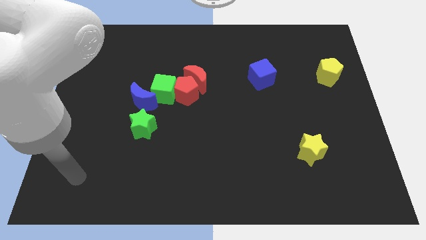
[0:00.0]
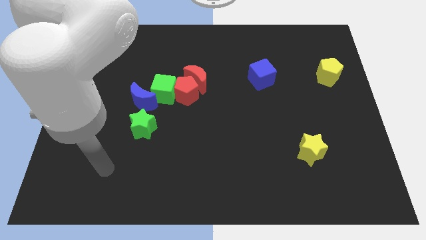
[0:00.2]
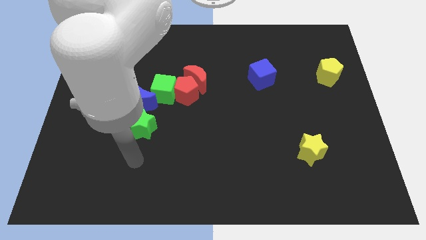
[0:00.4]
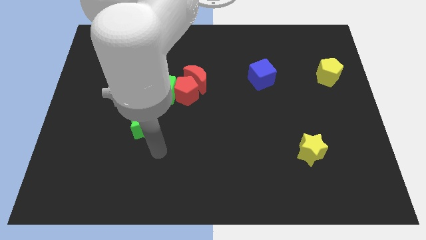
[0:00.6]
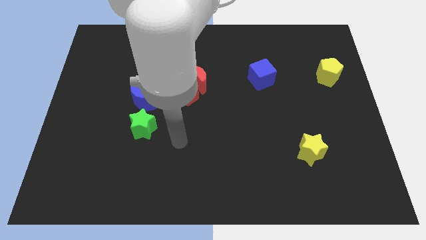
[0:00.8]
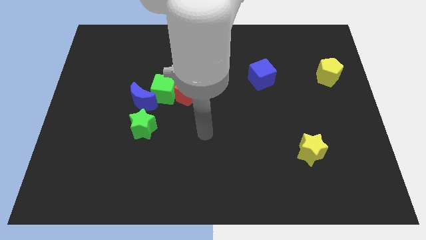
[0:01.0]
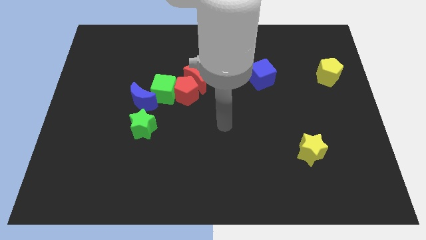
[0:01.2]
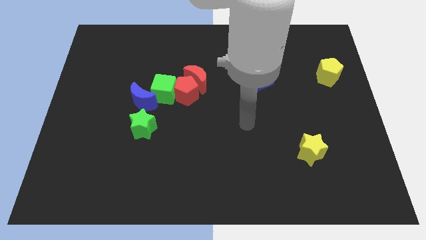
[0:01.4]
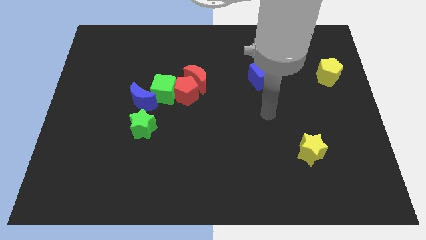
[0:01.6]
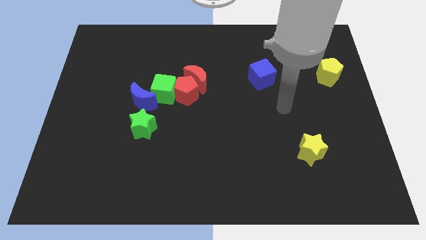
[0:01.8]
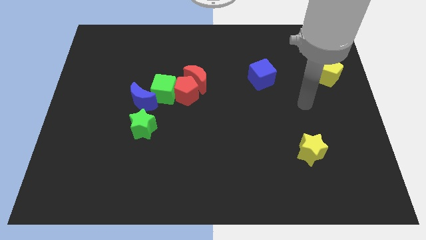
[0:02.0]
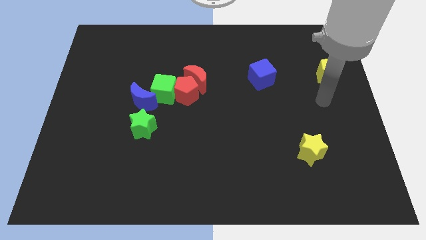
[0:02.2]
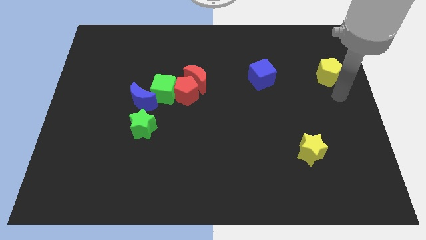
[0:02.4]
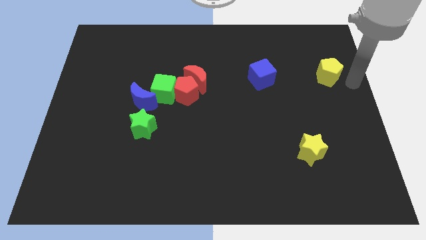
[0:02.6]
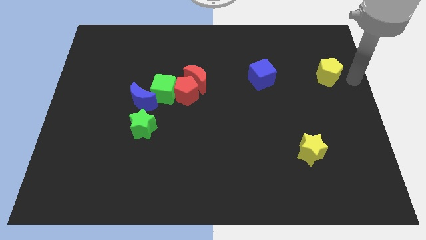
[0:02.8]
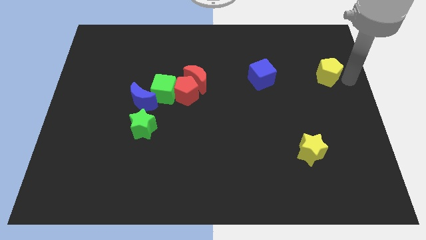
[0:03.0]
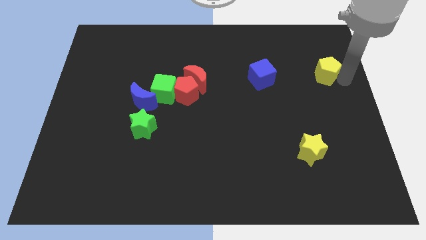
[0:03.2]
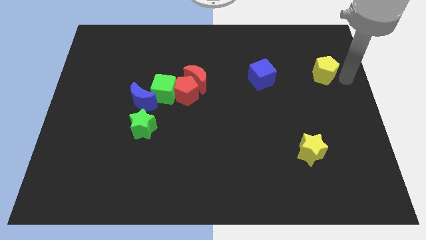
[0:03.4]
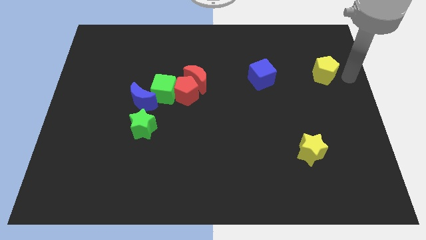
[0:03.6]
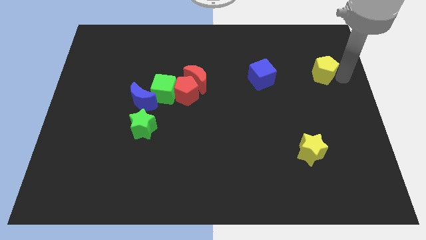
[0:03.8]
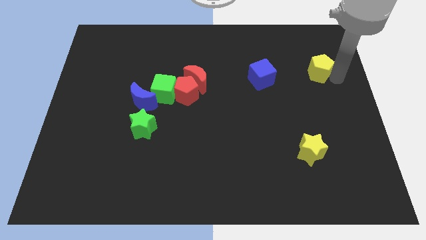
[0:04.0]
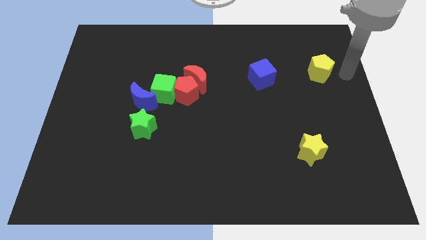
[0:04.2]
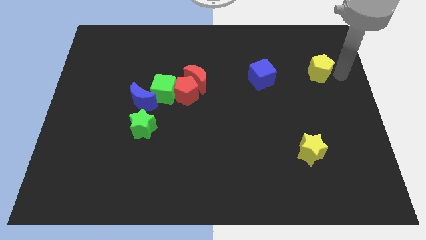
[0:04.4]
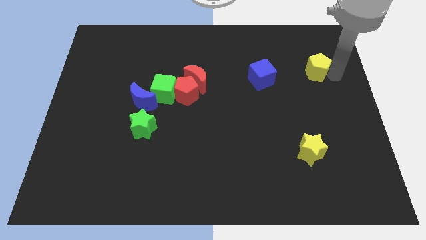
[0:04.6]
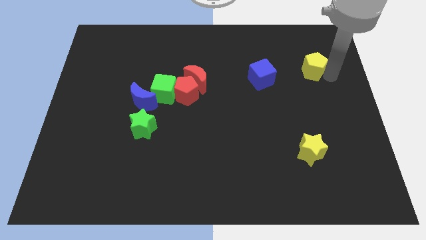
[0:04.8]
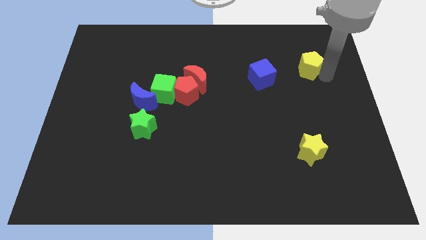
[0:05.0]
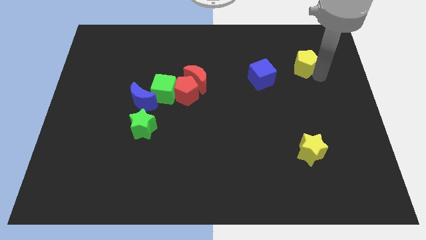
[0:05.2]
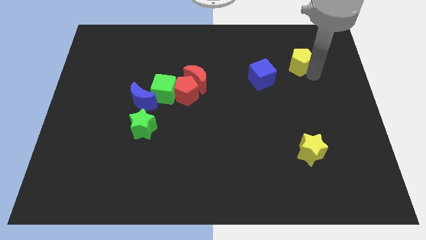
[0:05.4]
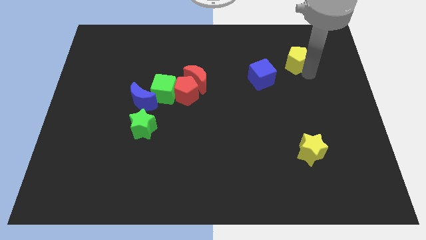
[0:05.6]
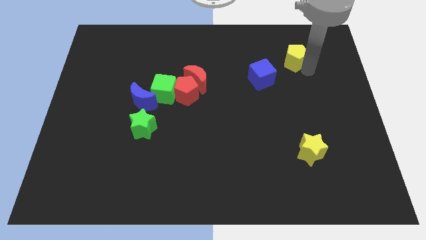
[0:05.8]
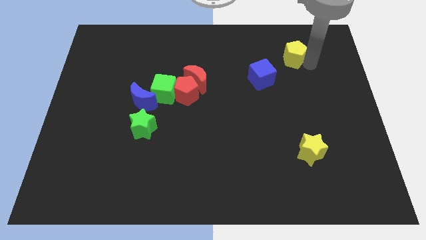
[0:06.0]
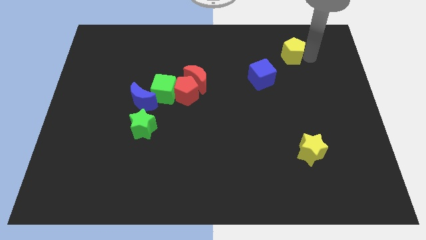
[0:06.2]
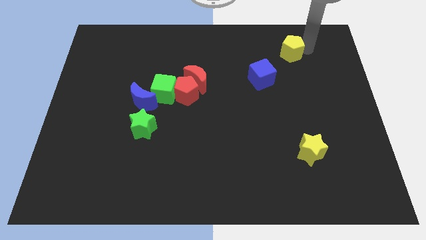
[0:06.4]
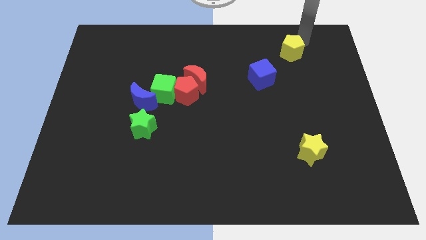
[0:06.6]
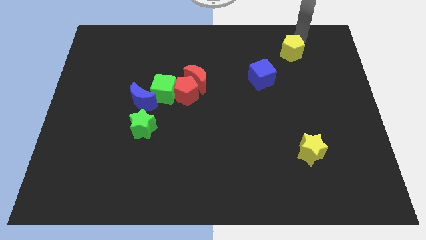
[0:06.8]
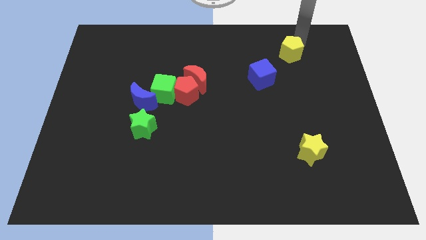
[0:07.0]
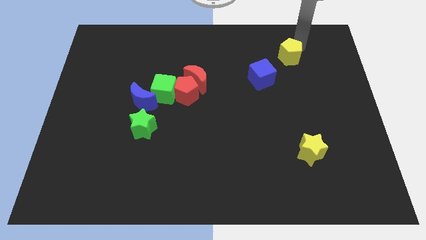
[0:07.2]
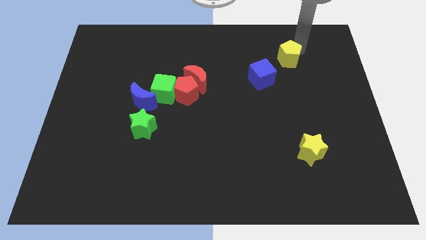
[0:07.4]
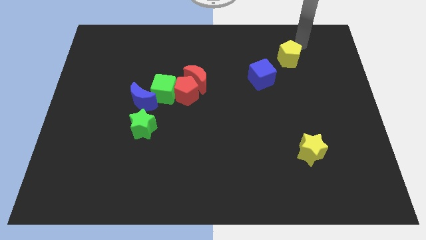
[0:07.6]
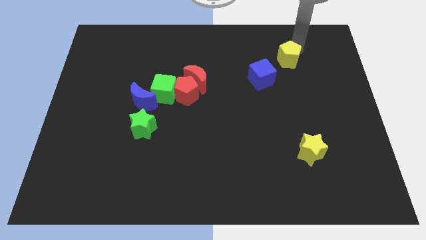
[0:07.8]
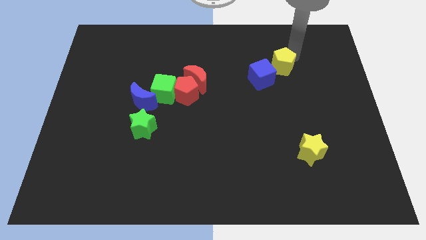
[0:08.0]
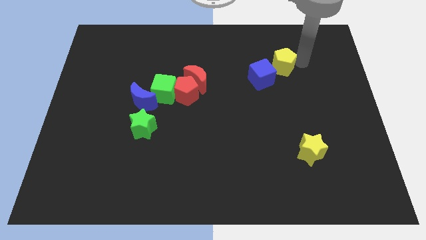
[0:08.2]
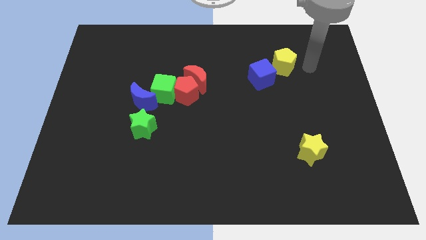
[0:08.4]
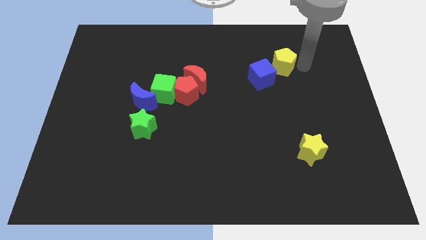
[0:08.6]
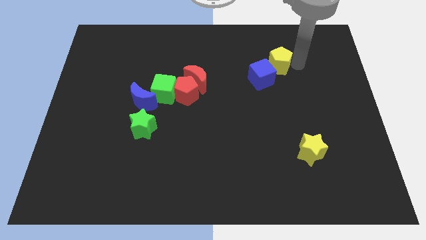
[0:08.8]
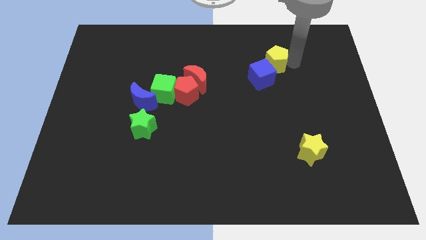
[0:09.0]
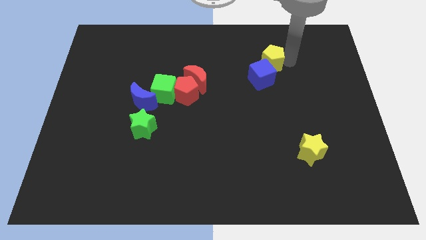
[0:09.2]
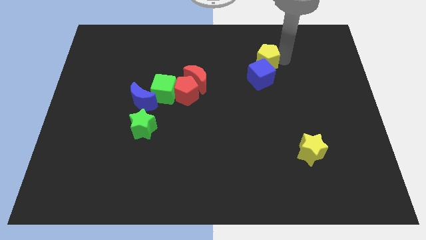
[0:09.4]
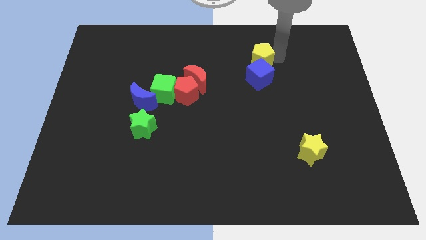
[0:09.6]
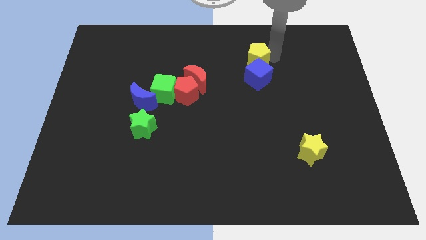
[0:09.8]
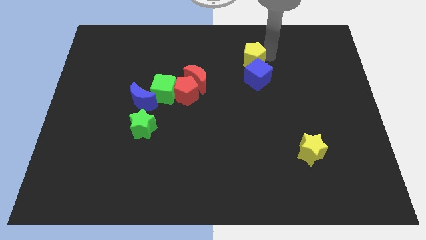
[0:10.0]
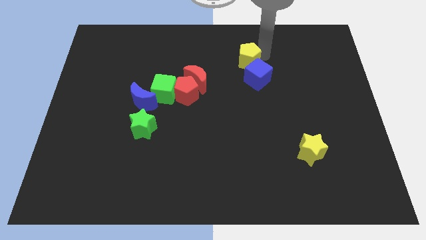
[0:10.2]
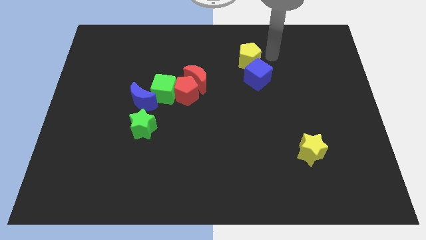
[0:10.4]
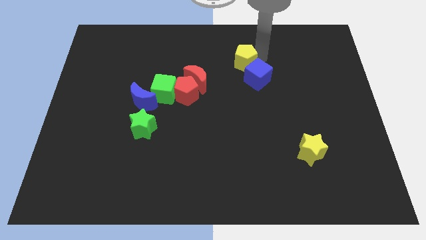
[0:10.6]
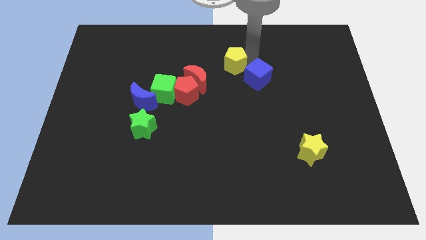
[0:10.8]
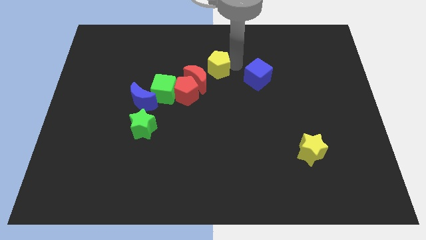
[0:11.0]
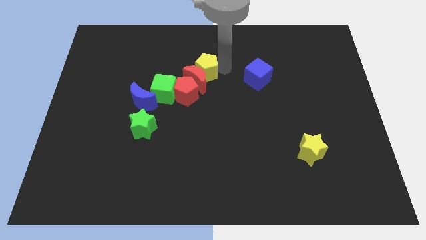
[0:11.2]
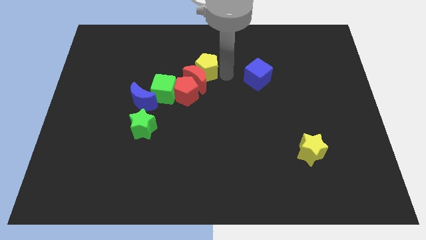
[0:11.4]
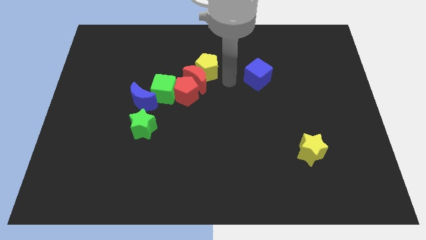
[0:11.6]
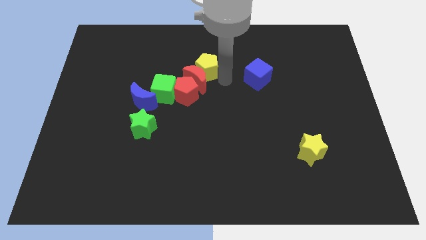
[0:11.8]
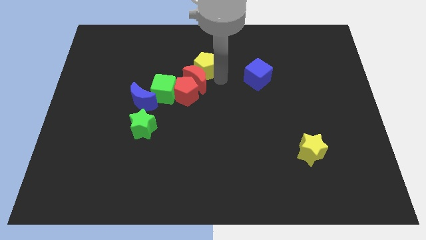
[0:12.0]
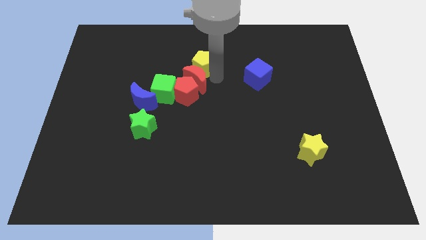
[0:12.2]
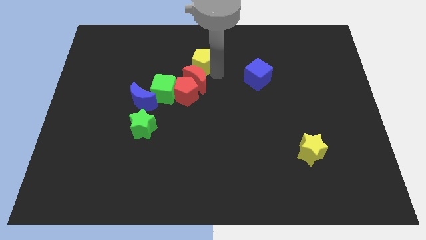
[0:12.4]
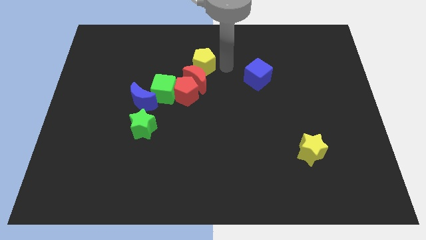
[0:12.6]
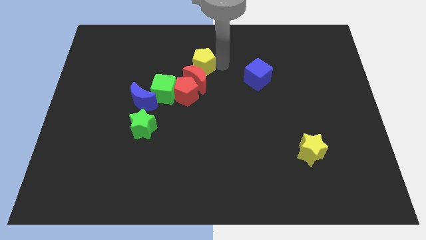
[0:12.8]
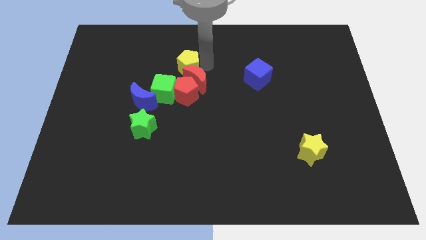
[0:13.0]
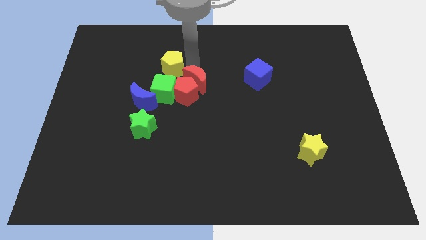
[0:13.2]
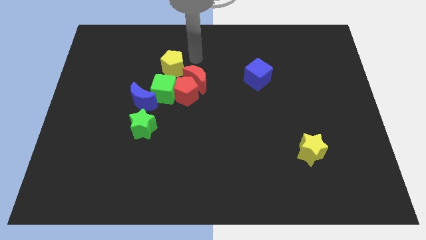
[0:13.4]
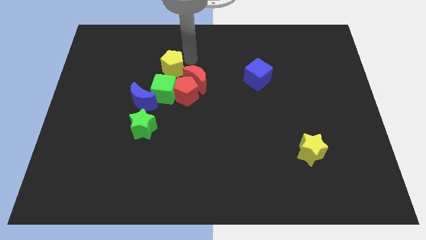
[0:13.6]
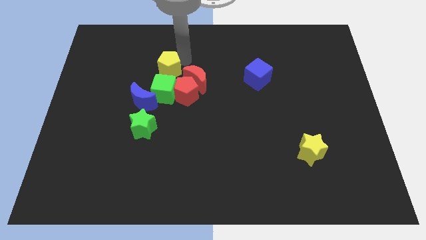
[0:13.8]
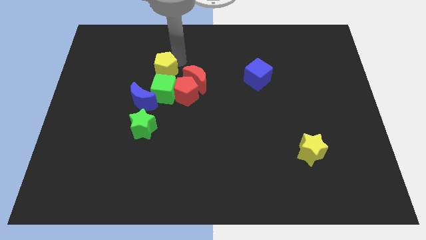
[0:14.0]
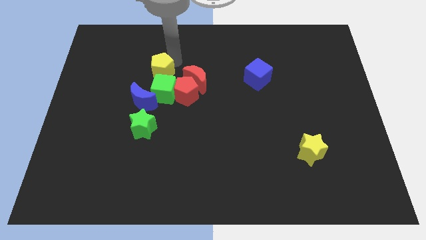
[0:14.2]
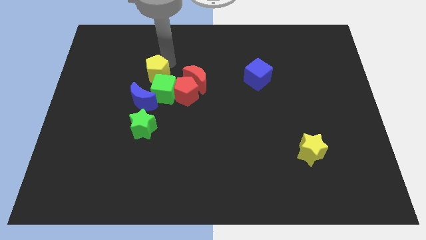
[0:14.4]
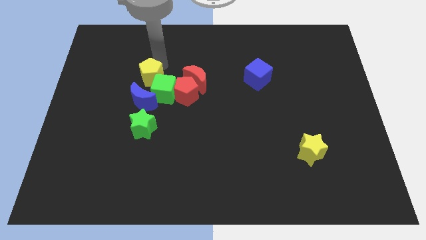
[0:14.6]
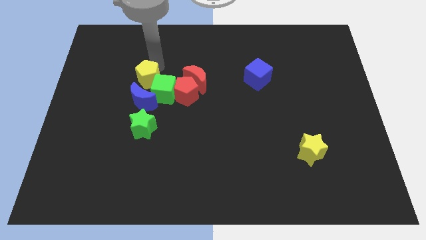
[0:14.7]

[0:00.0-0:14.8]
move the yellow pentagon just left of the green cube
